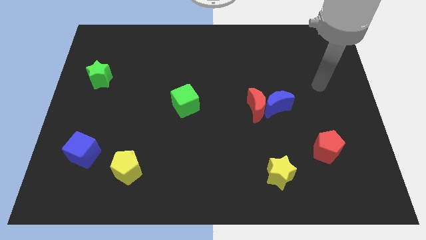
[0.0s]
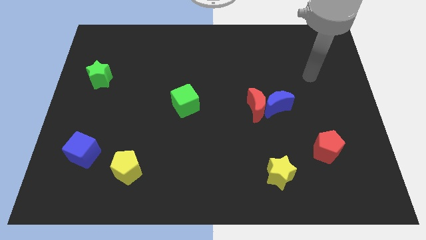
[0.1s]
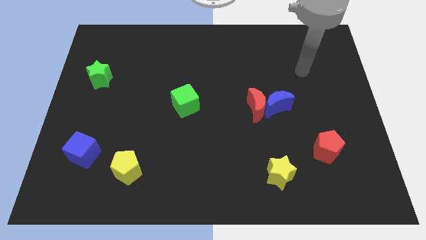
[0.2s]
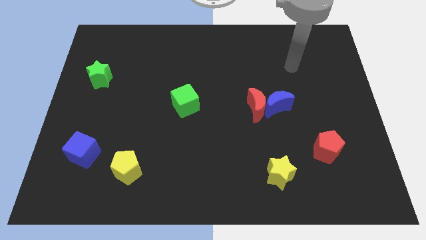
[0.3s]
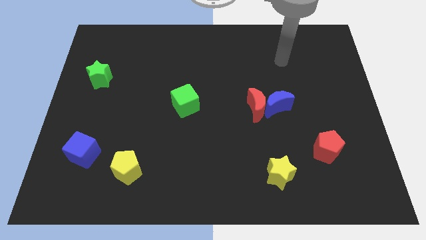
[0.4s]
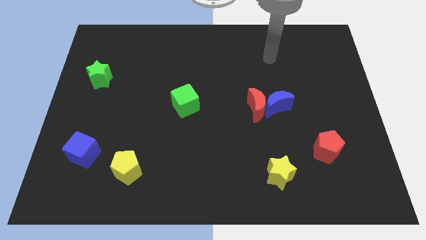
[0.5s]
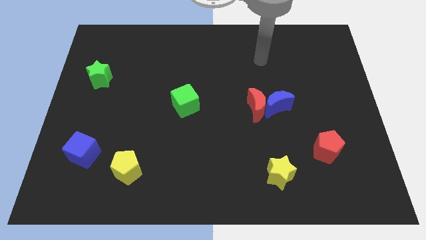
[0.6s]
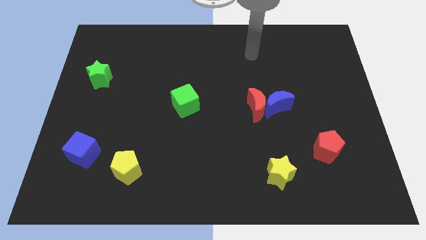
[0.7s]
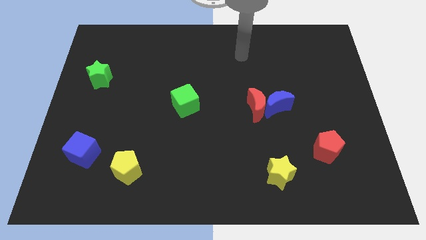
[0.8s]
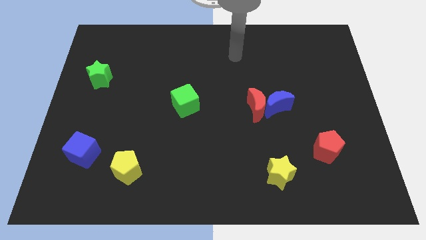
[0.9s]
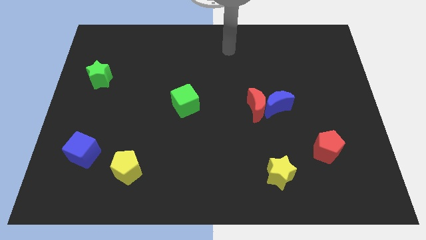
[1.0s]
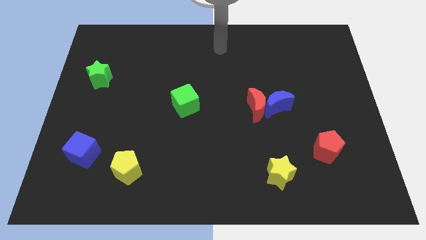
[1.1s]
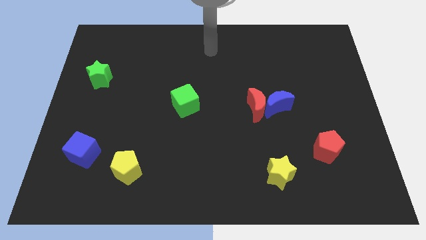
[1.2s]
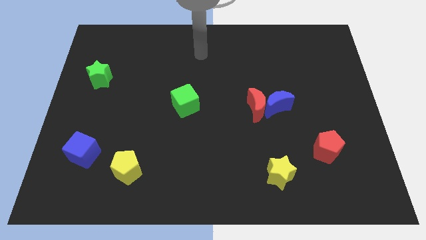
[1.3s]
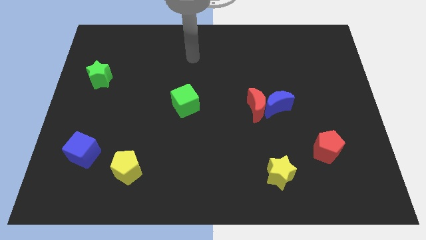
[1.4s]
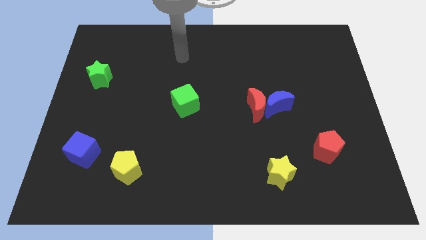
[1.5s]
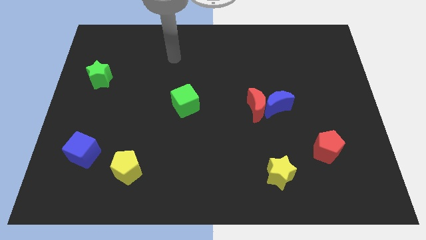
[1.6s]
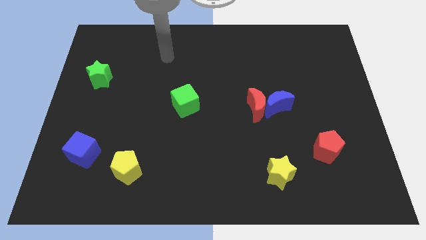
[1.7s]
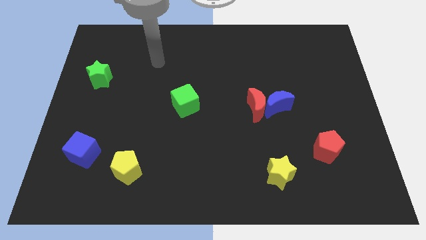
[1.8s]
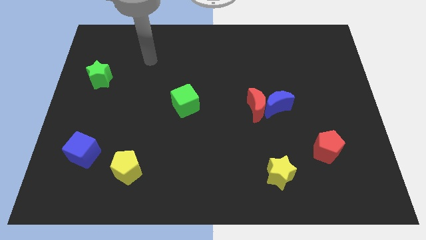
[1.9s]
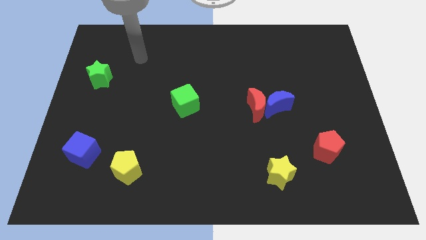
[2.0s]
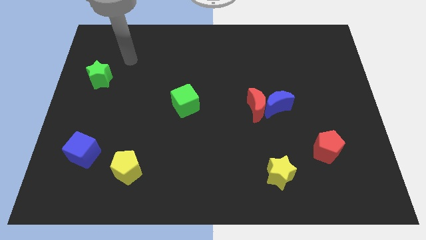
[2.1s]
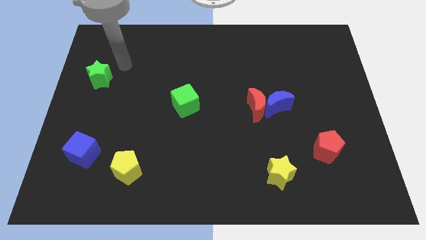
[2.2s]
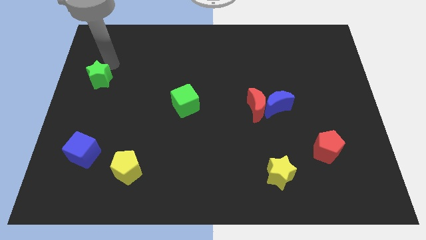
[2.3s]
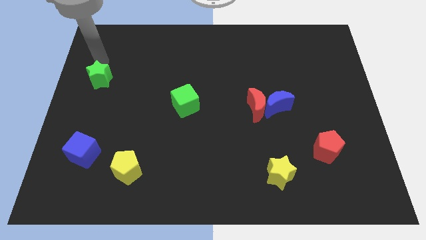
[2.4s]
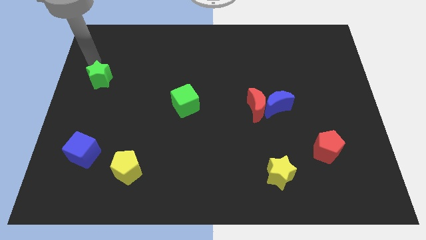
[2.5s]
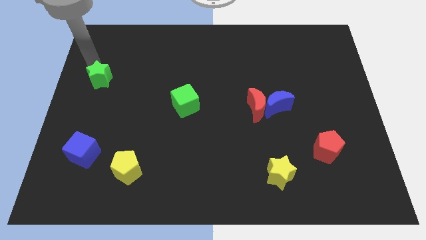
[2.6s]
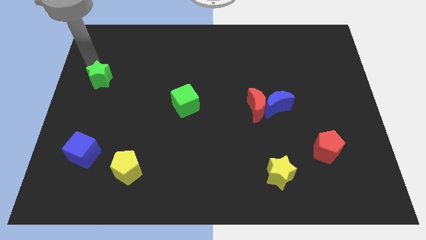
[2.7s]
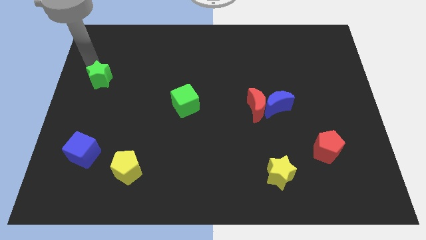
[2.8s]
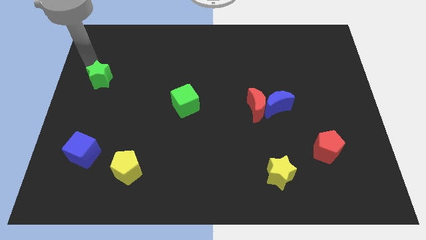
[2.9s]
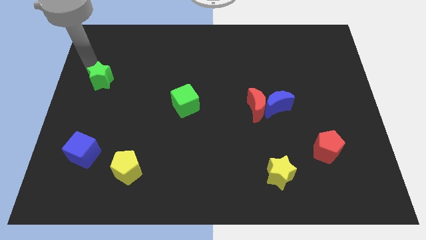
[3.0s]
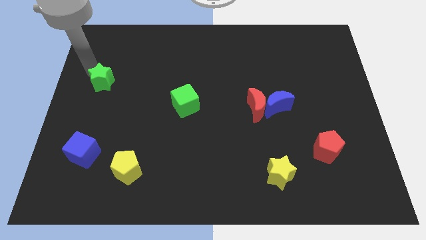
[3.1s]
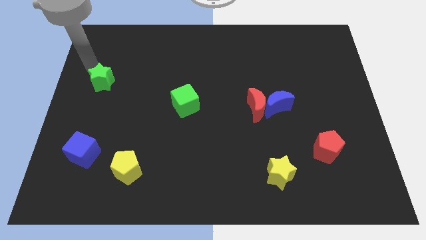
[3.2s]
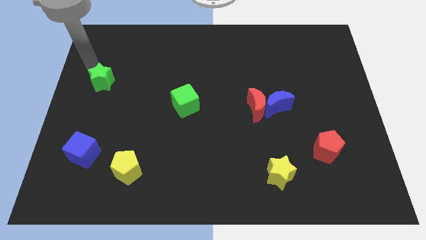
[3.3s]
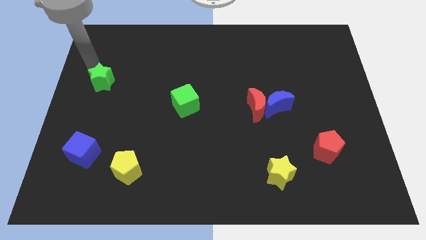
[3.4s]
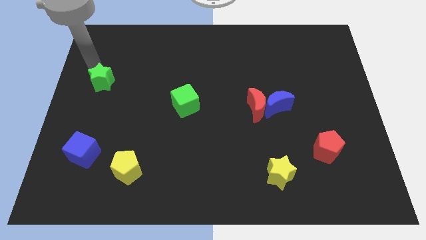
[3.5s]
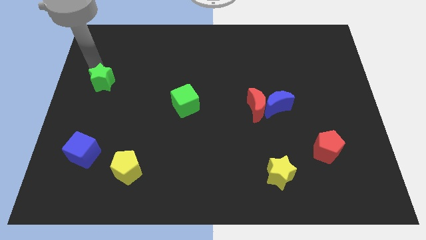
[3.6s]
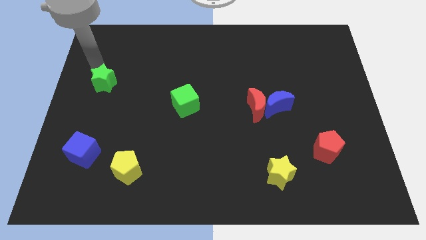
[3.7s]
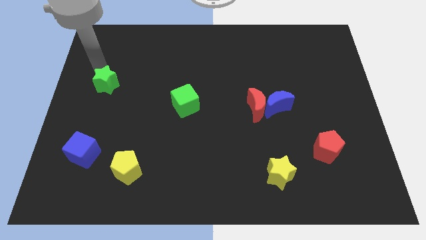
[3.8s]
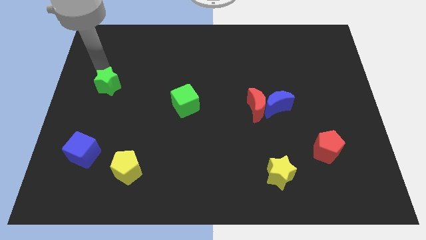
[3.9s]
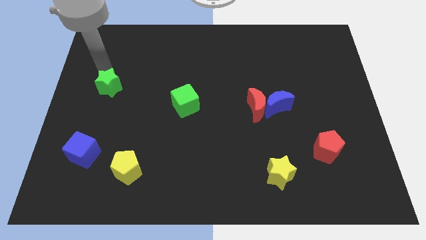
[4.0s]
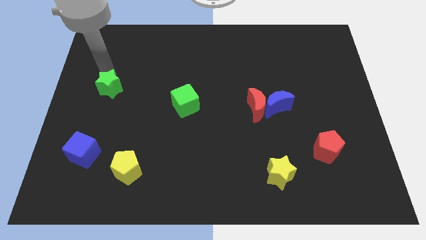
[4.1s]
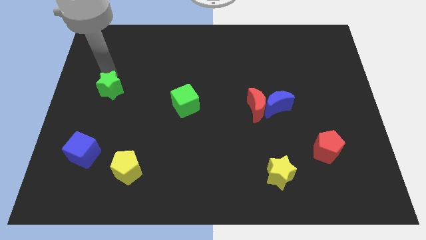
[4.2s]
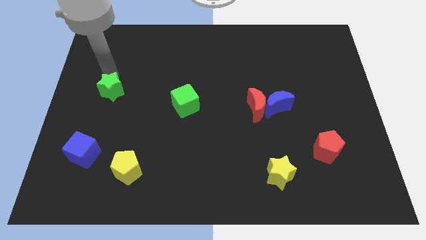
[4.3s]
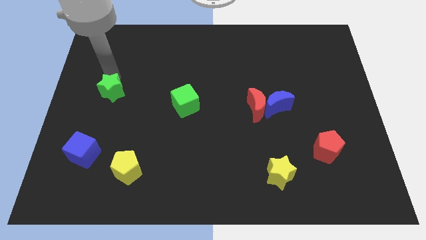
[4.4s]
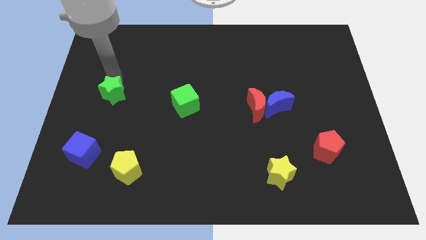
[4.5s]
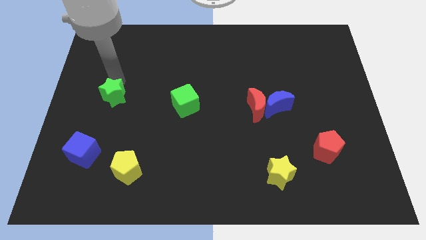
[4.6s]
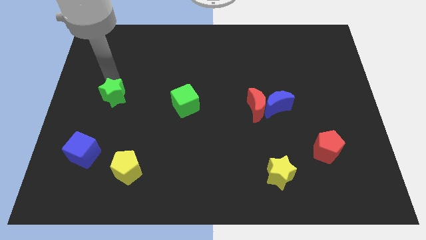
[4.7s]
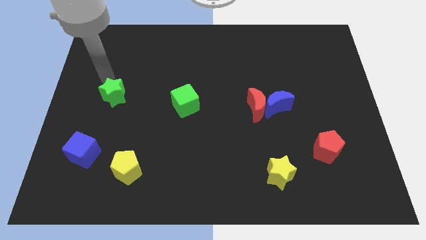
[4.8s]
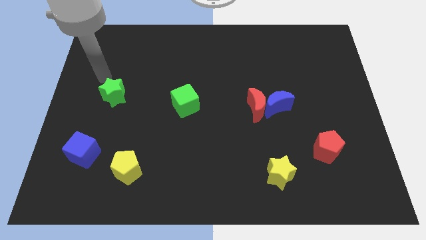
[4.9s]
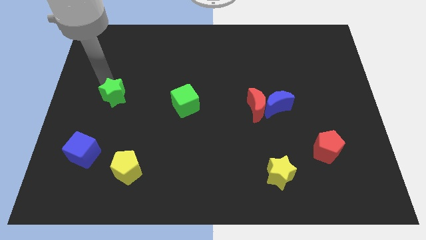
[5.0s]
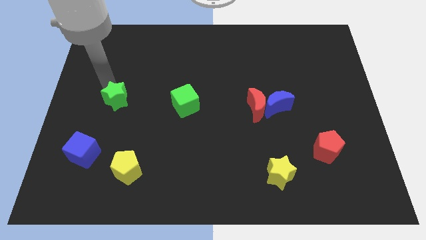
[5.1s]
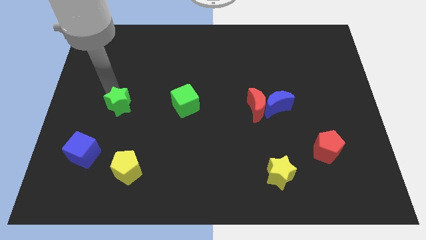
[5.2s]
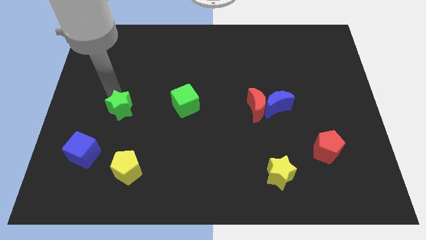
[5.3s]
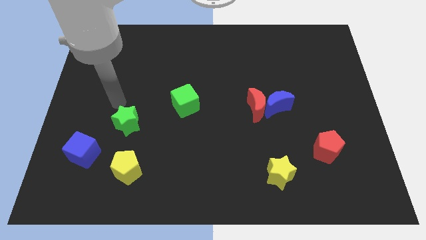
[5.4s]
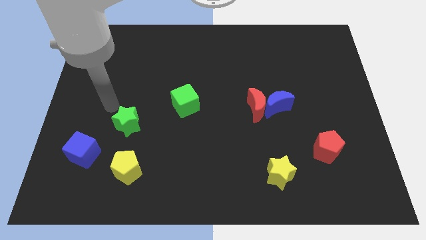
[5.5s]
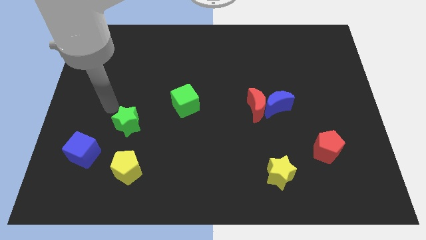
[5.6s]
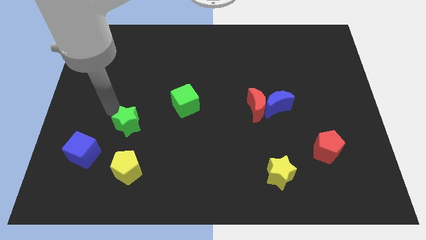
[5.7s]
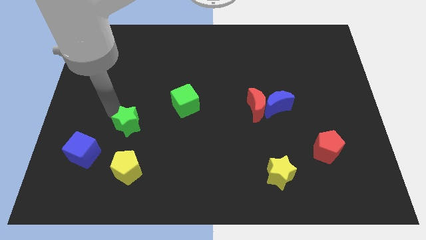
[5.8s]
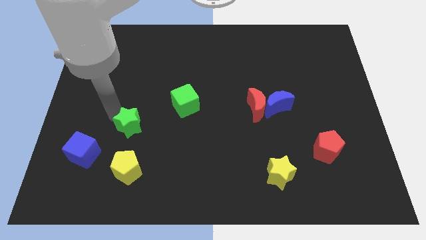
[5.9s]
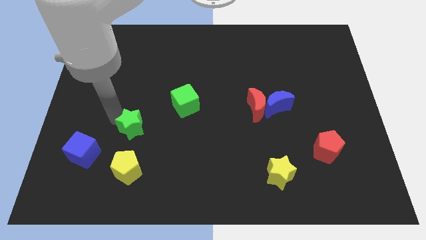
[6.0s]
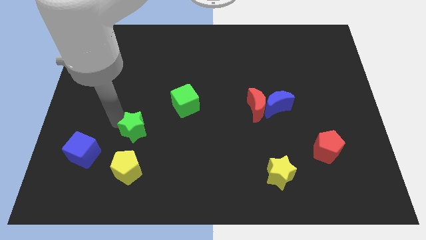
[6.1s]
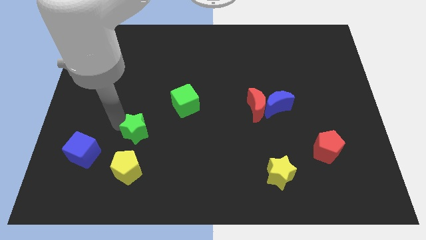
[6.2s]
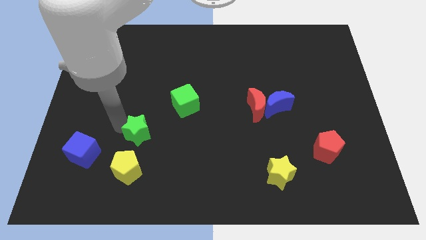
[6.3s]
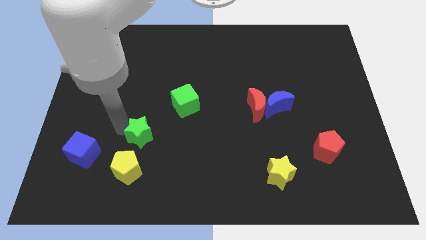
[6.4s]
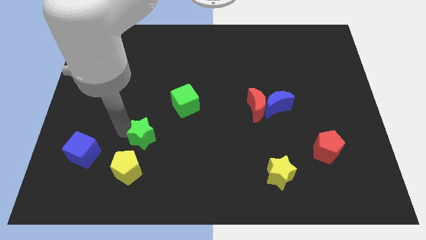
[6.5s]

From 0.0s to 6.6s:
push the green star diagonally up and to the right of the yellow pentagon

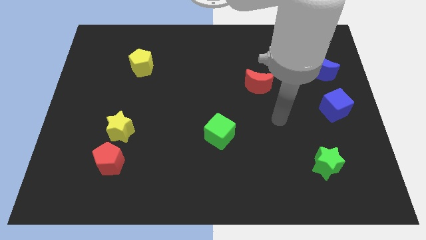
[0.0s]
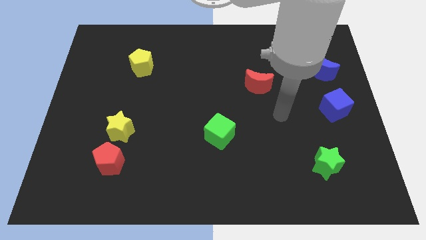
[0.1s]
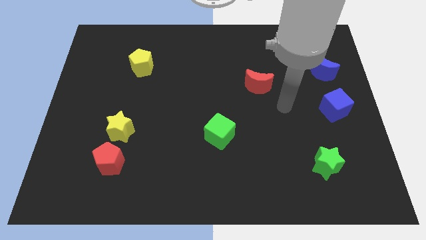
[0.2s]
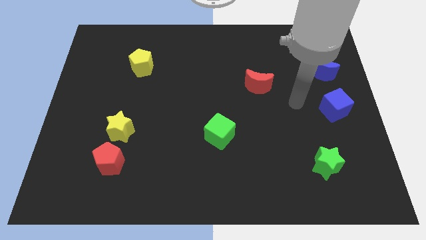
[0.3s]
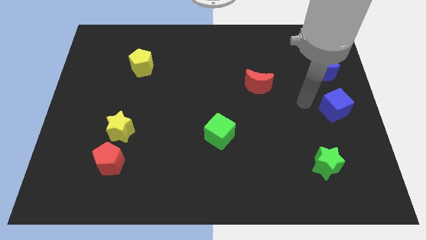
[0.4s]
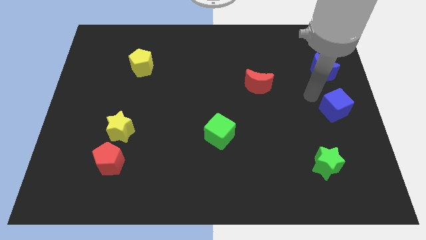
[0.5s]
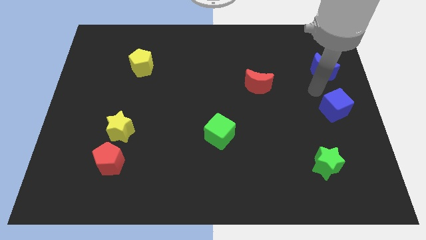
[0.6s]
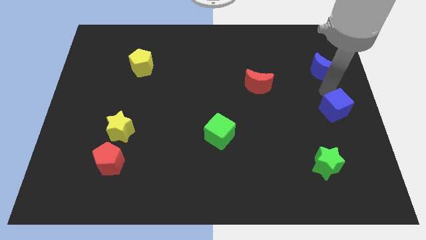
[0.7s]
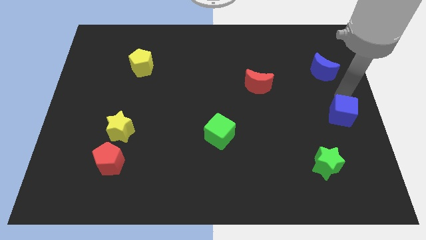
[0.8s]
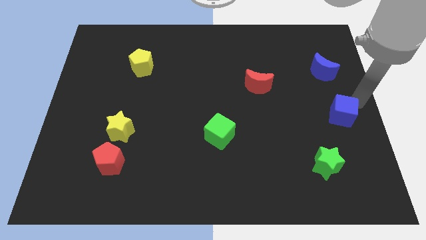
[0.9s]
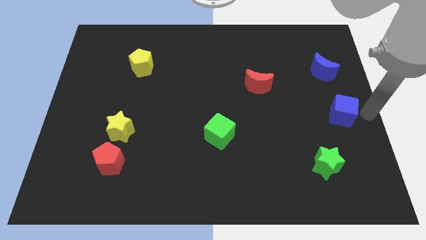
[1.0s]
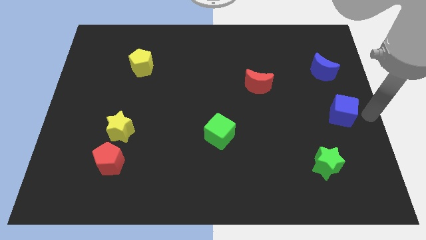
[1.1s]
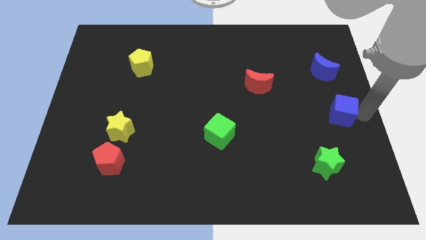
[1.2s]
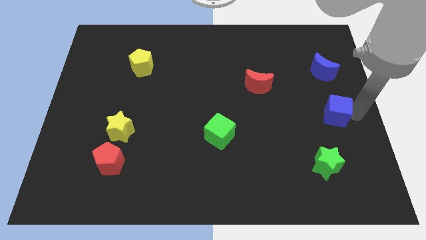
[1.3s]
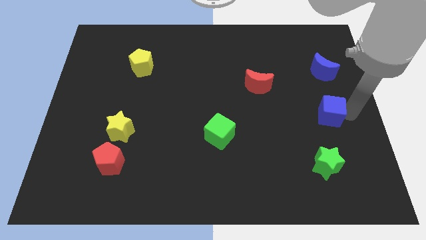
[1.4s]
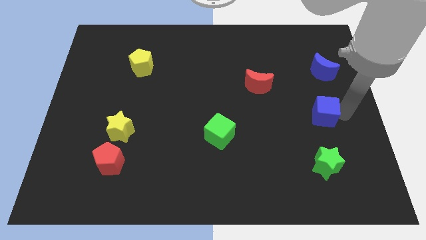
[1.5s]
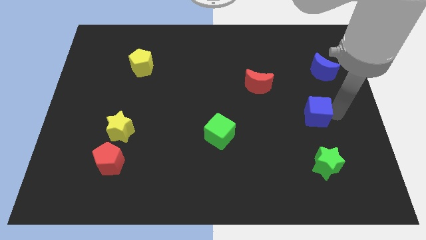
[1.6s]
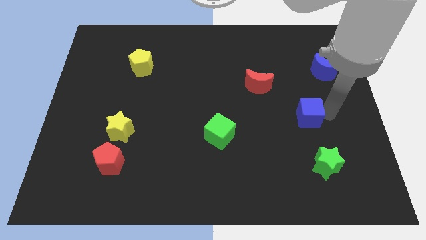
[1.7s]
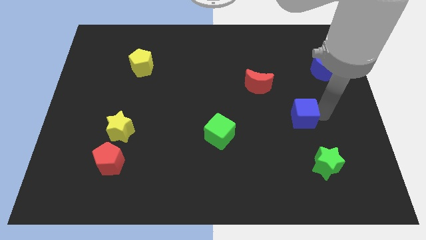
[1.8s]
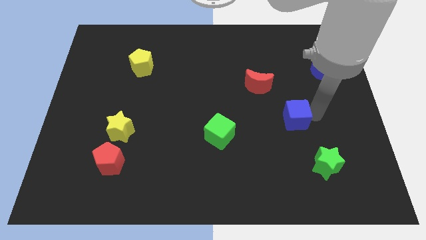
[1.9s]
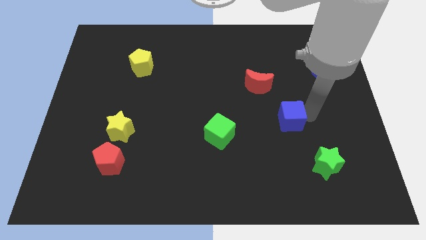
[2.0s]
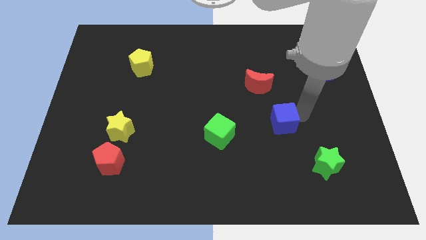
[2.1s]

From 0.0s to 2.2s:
move the blue cube to the right side of the green cube
